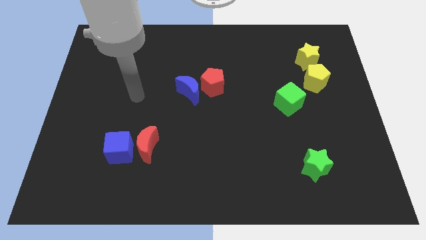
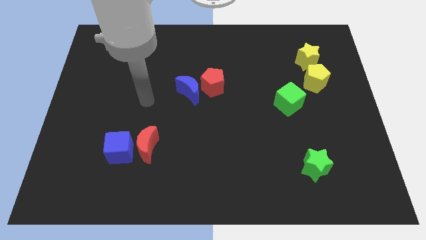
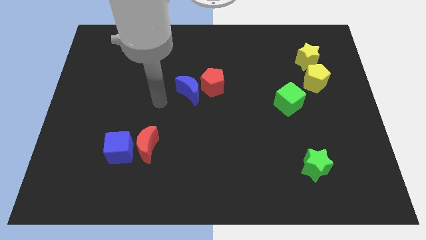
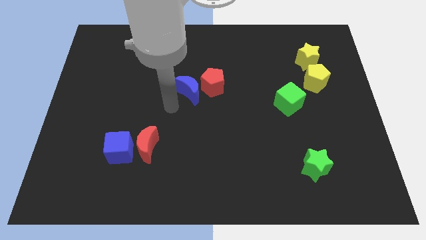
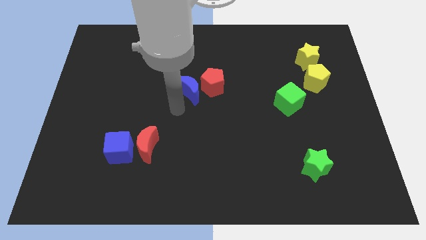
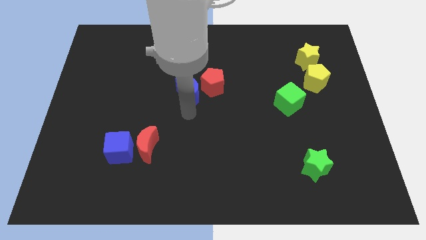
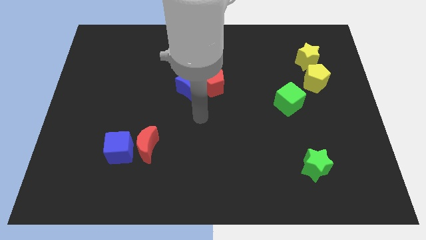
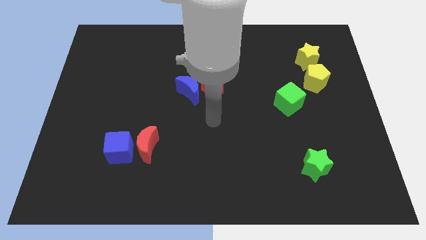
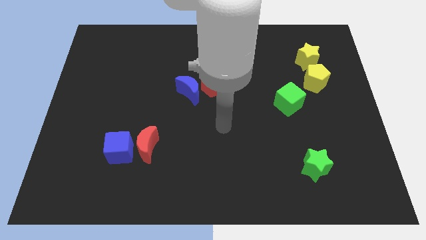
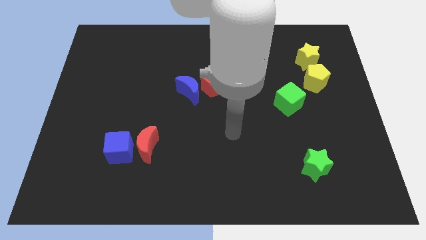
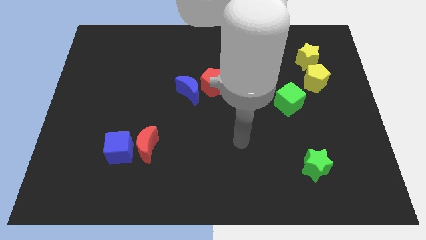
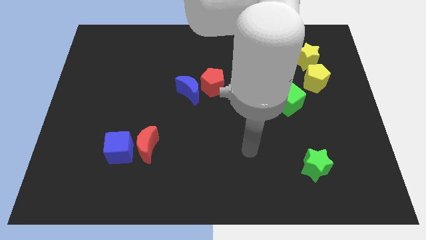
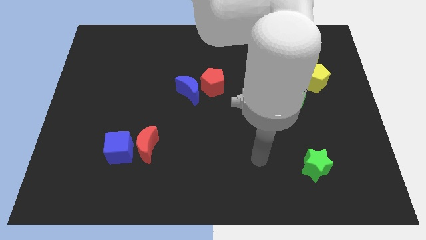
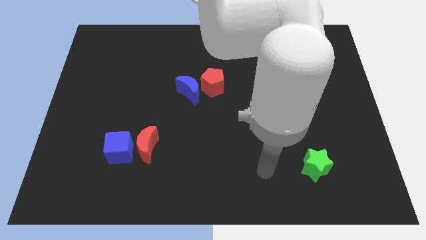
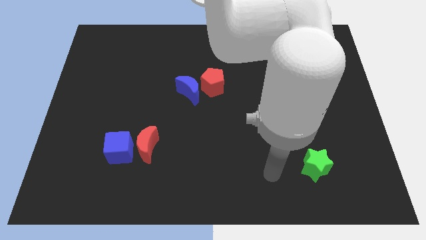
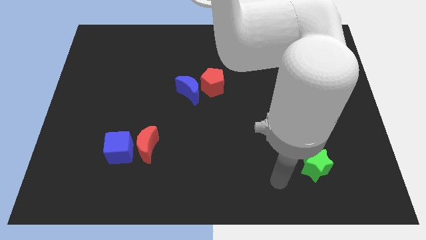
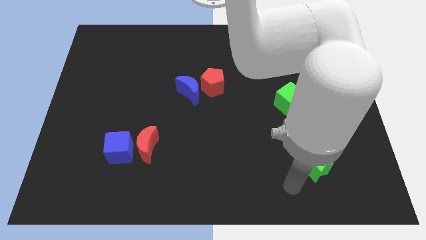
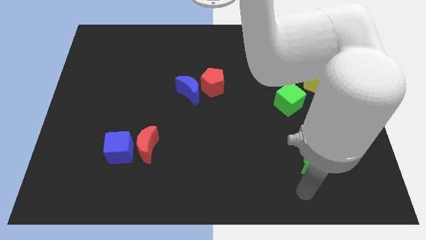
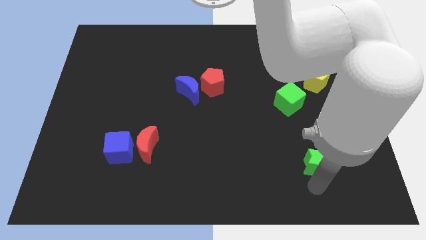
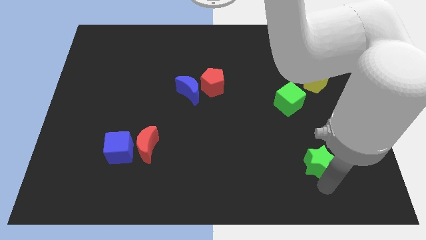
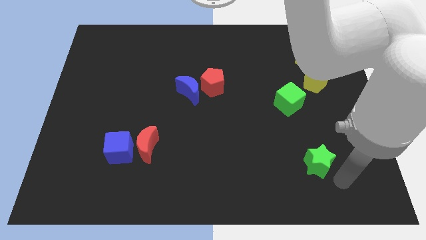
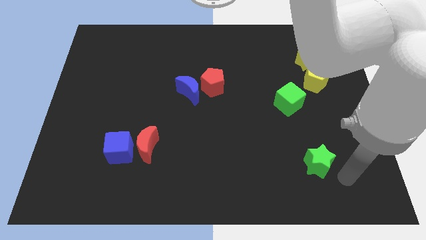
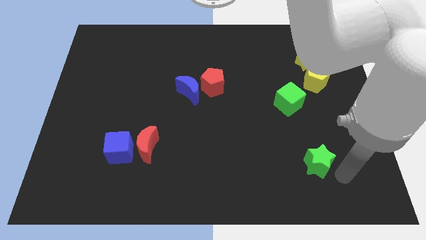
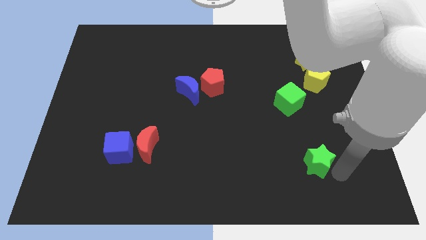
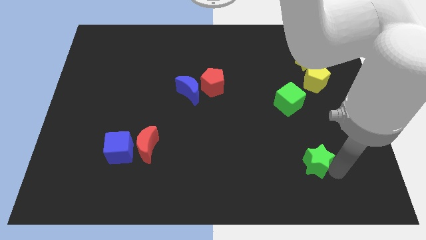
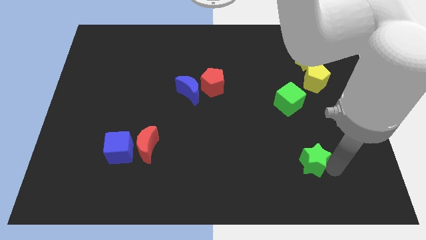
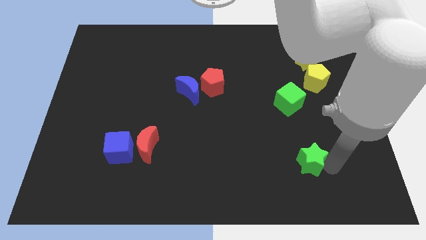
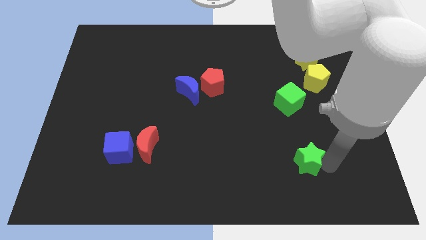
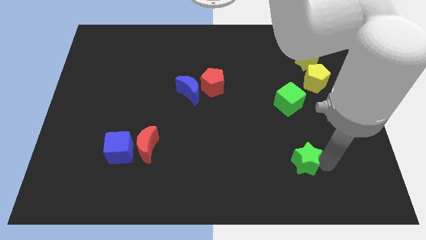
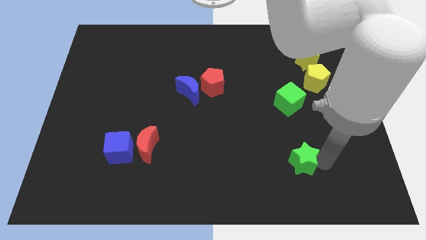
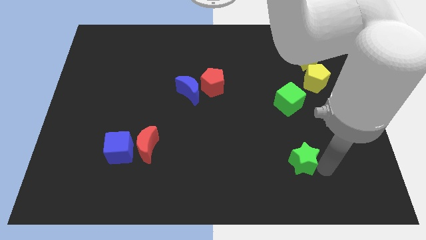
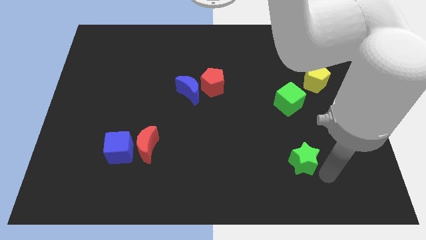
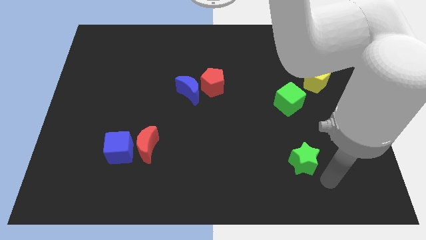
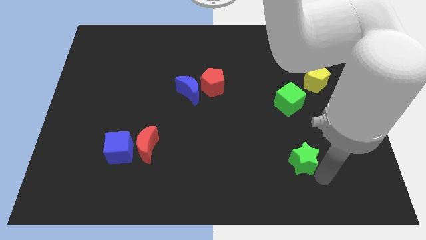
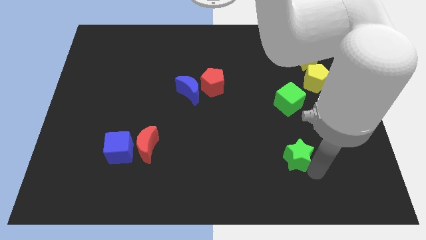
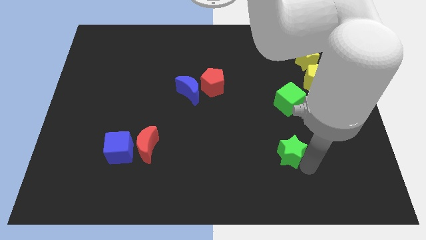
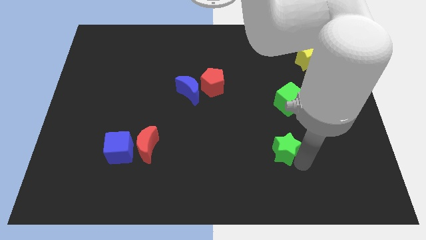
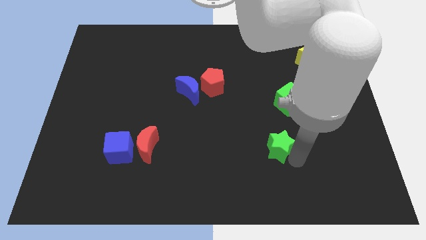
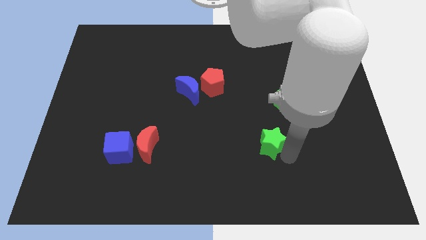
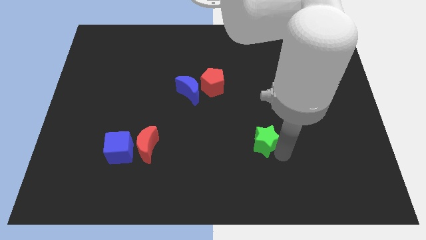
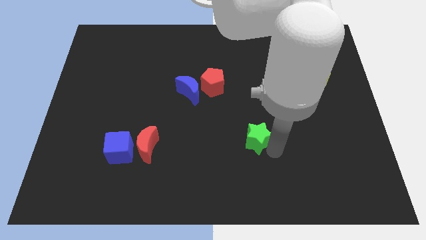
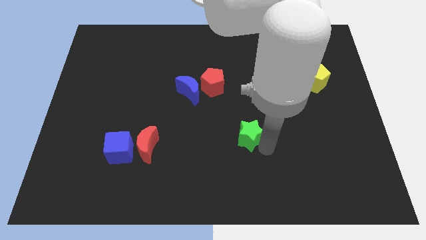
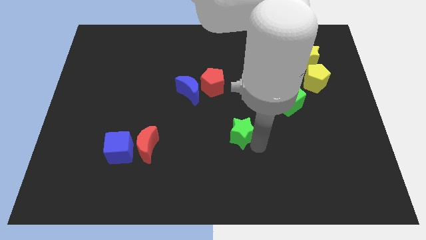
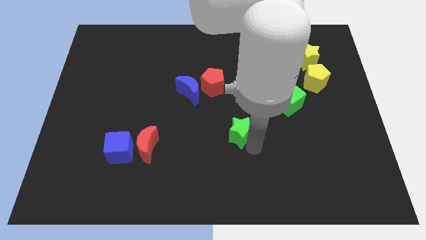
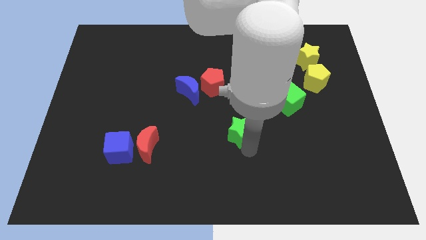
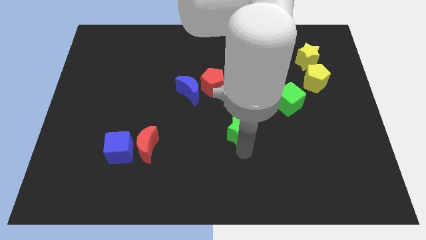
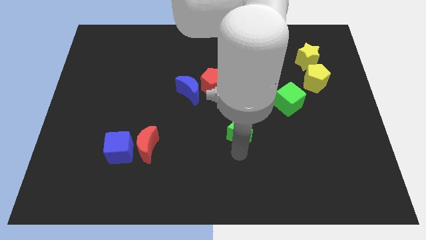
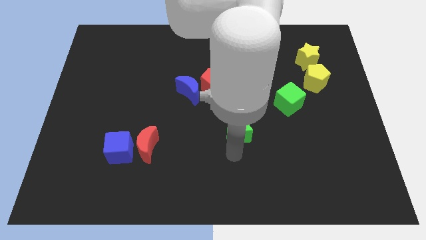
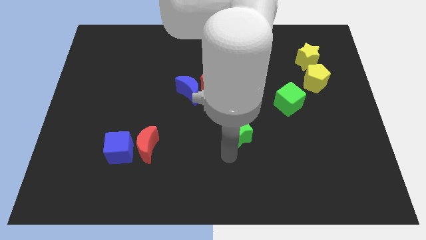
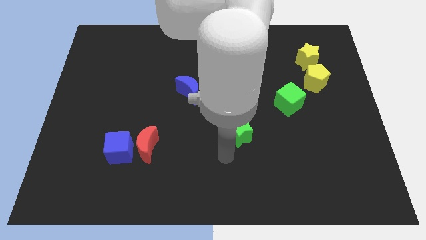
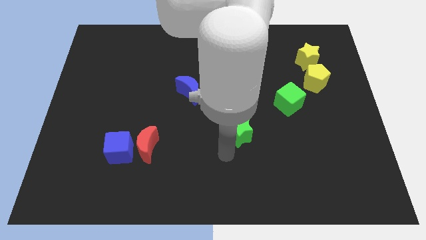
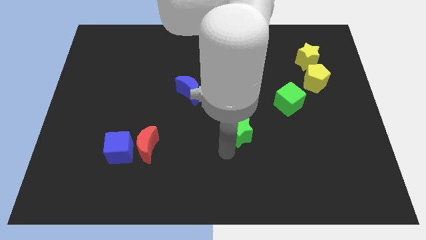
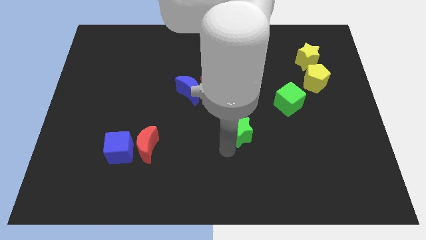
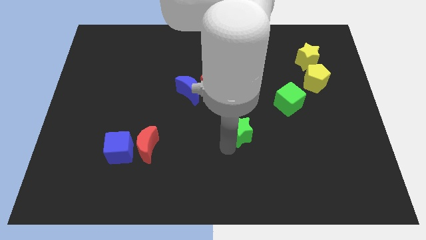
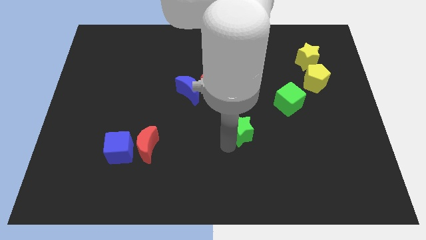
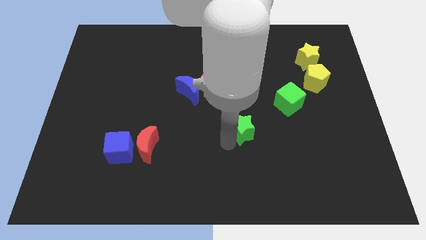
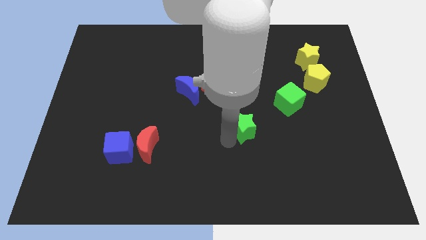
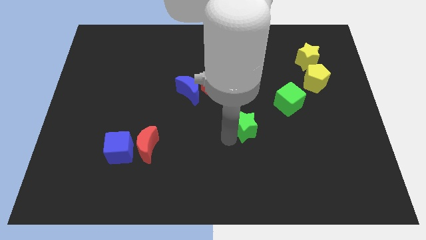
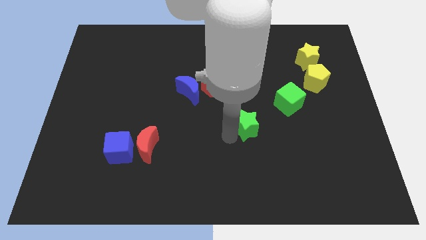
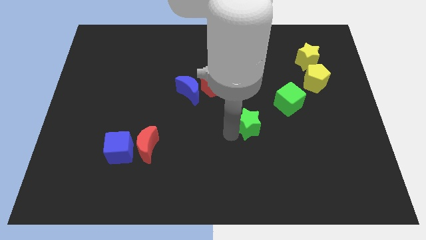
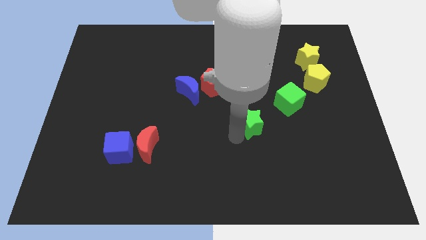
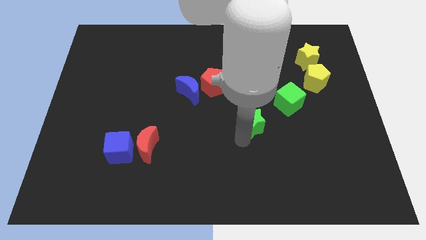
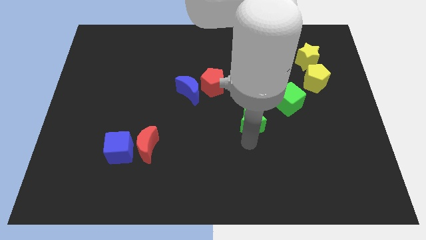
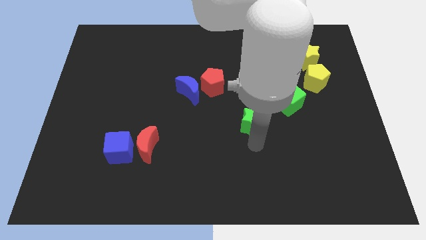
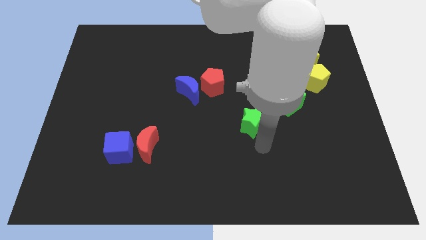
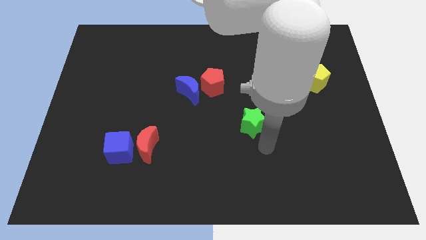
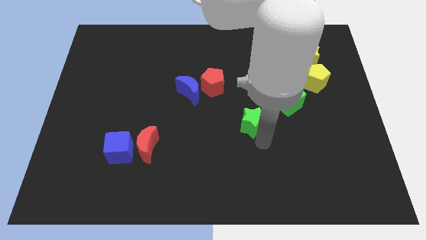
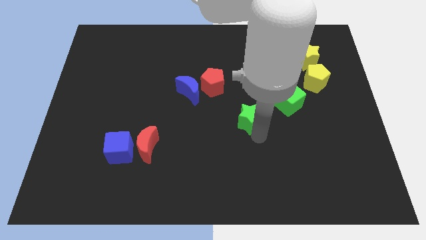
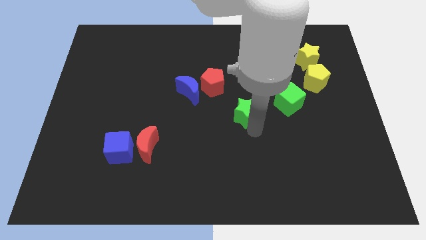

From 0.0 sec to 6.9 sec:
slide the green star to the bottom right side of the red pentagon

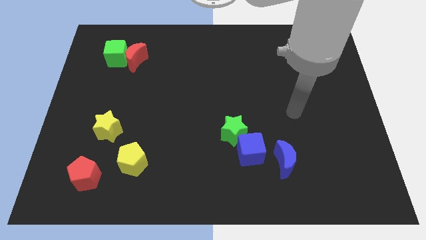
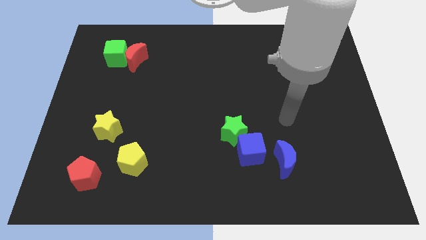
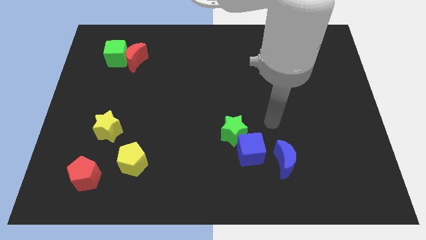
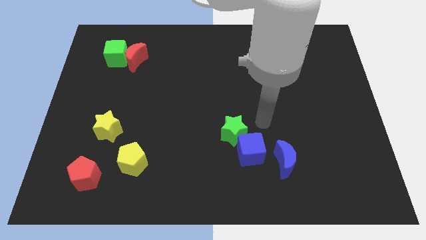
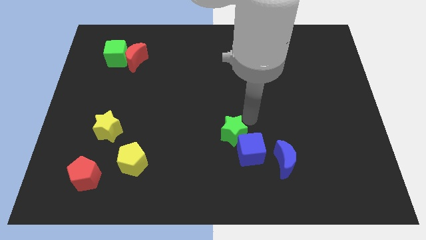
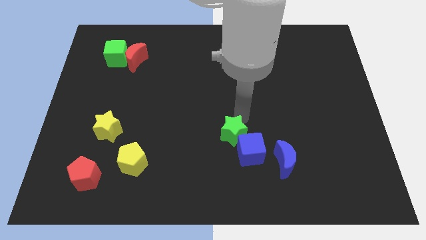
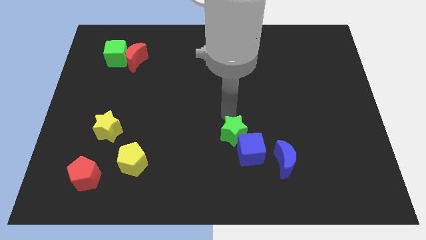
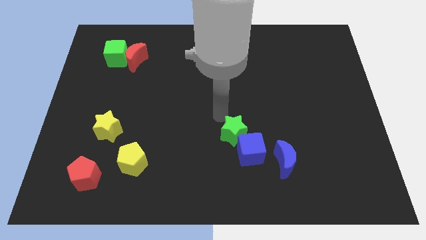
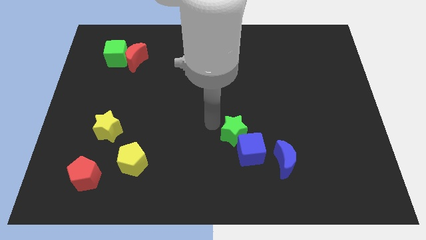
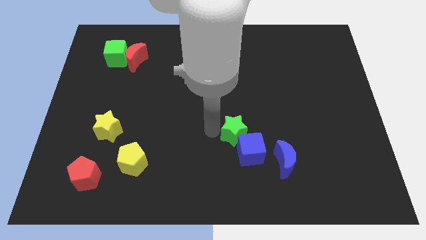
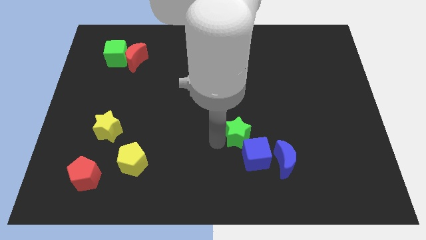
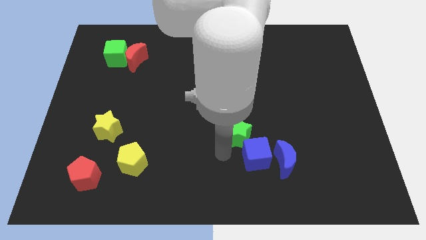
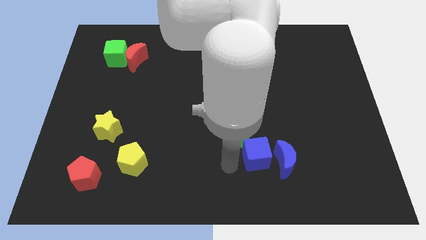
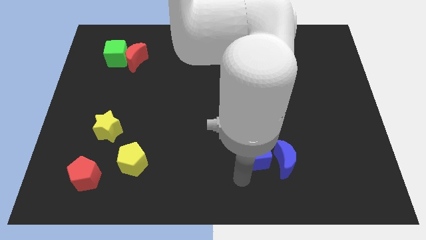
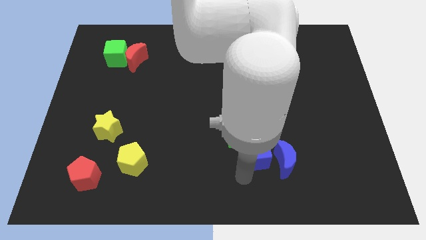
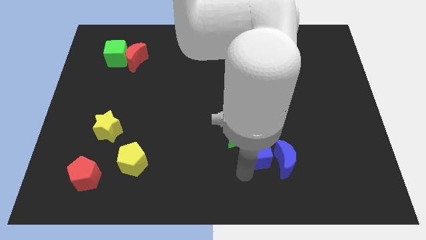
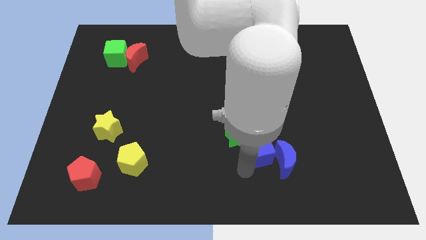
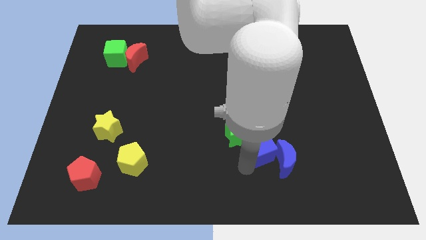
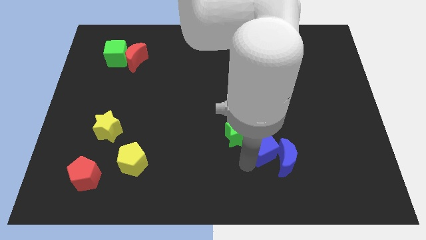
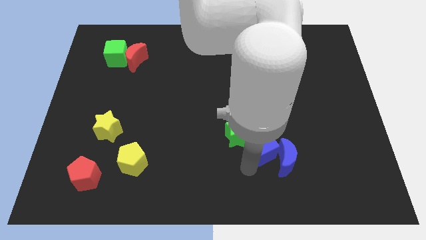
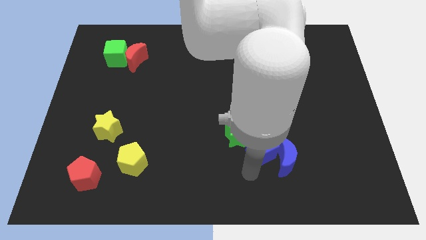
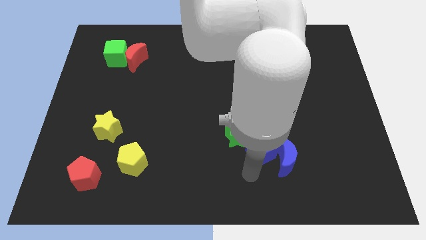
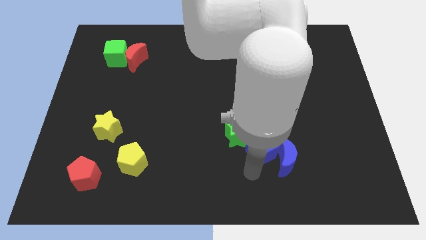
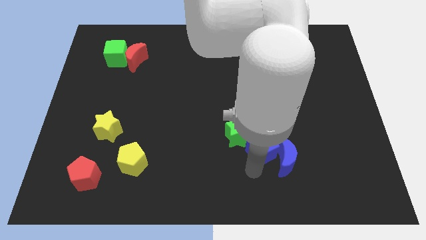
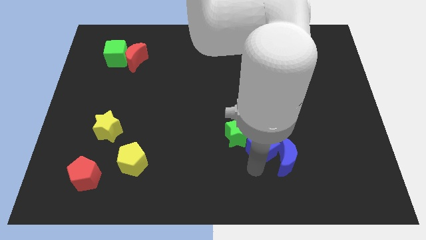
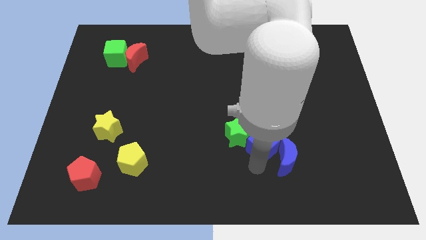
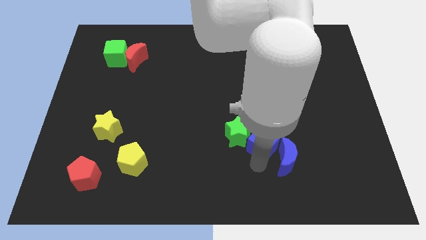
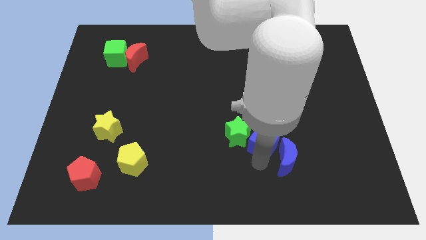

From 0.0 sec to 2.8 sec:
move the blue cube to the top of the blue moon
